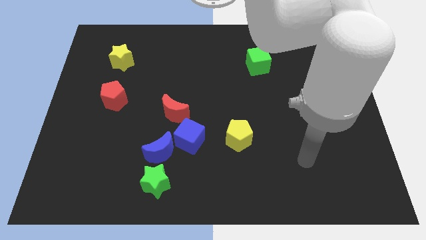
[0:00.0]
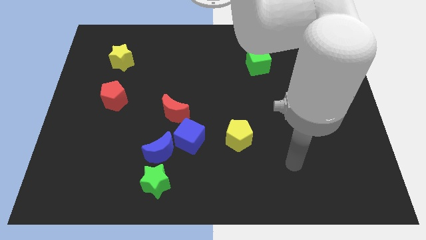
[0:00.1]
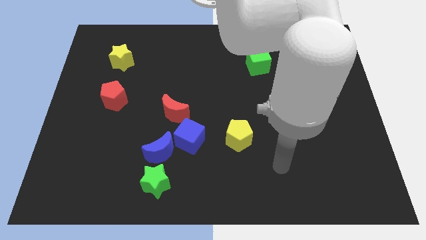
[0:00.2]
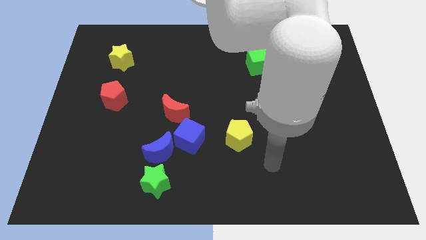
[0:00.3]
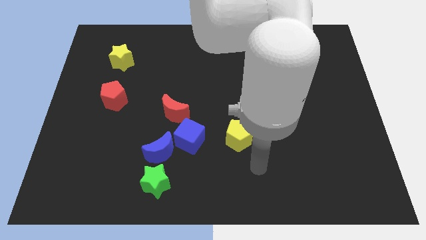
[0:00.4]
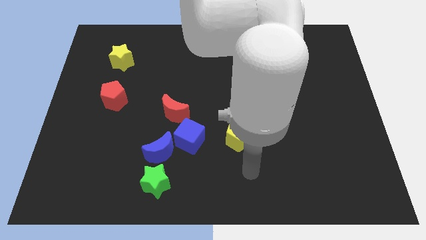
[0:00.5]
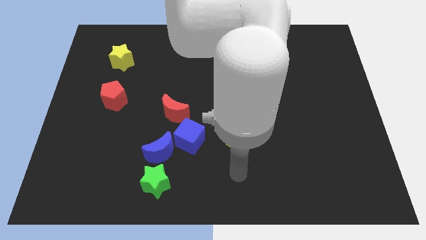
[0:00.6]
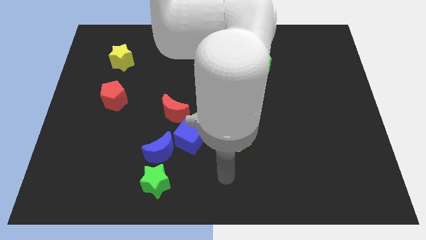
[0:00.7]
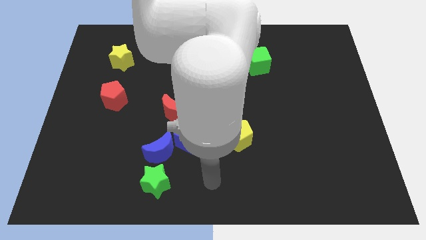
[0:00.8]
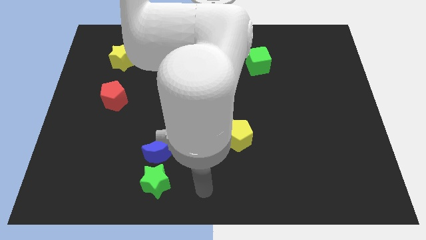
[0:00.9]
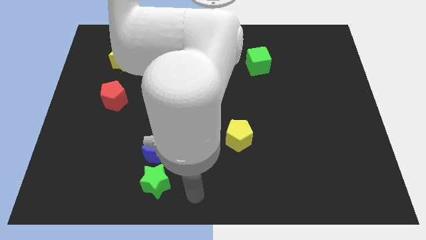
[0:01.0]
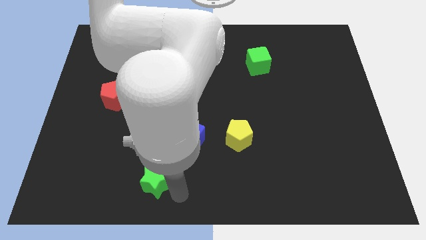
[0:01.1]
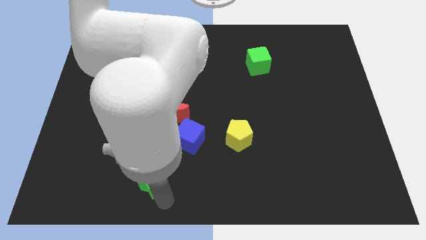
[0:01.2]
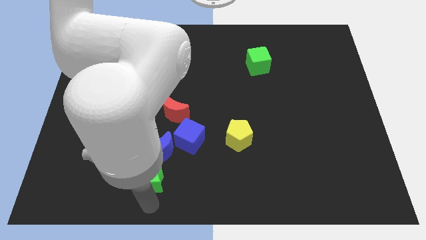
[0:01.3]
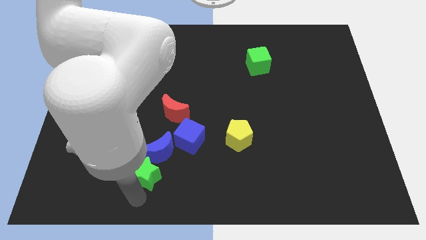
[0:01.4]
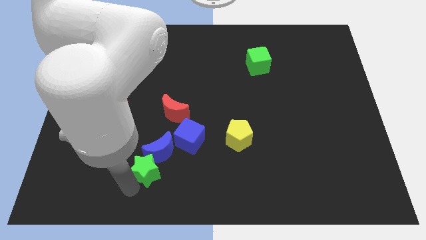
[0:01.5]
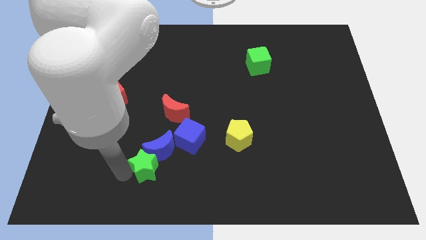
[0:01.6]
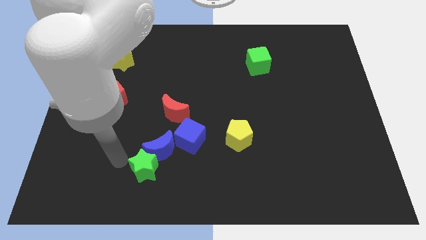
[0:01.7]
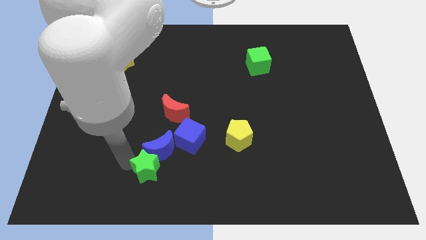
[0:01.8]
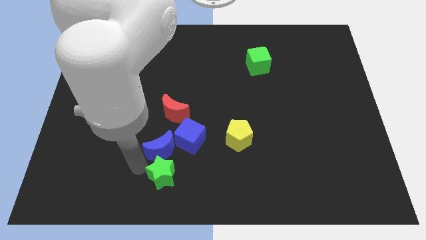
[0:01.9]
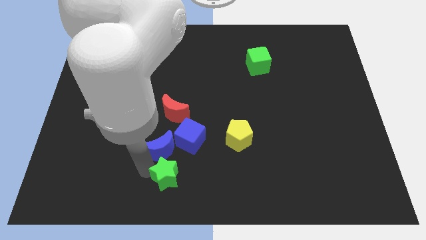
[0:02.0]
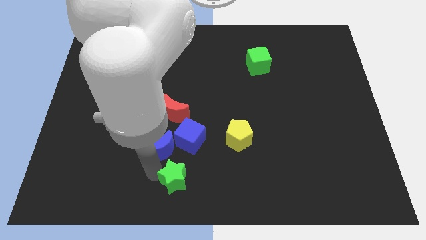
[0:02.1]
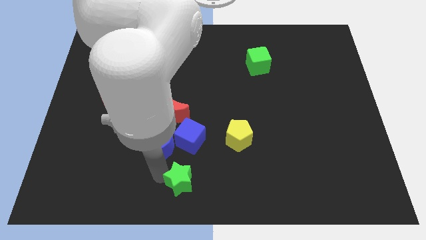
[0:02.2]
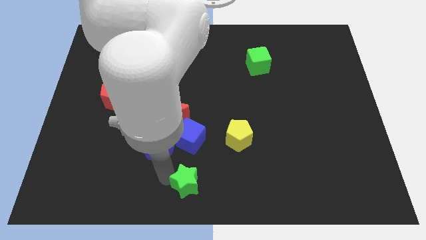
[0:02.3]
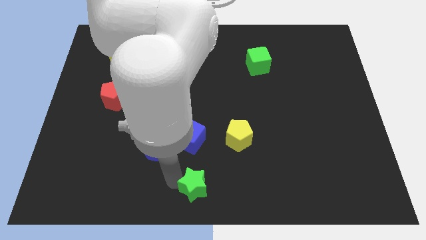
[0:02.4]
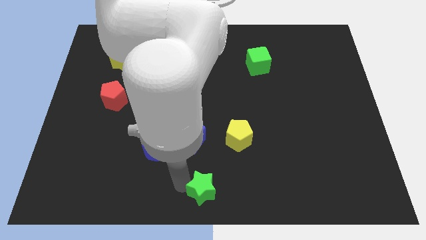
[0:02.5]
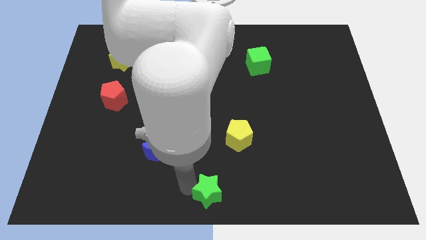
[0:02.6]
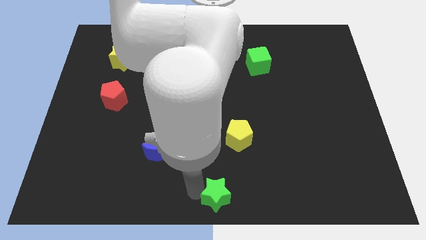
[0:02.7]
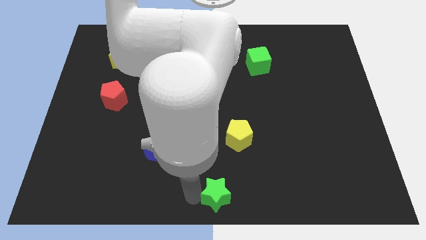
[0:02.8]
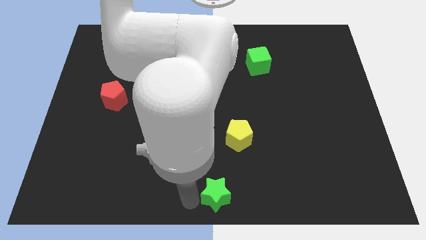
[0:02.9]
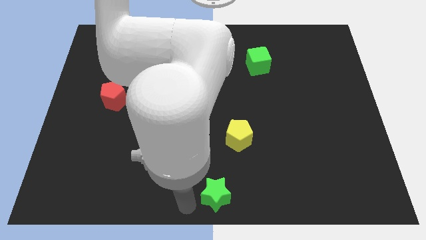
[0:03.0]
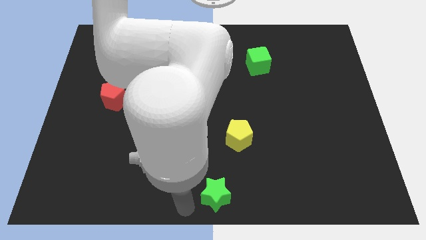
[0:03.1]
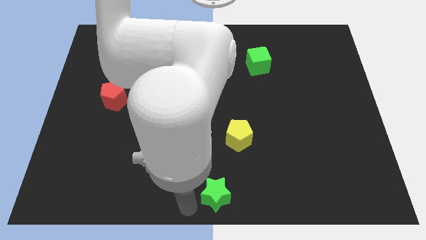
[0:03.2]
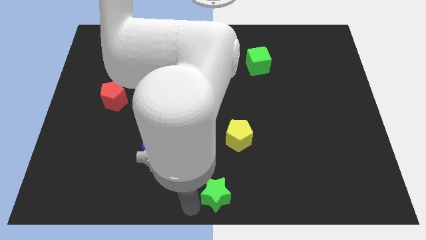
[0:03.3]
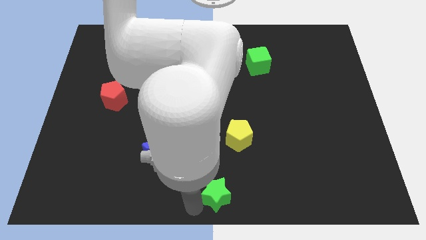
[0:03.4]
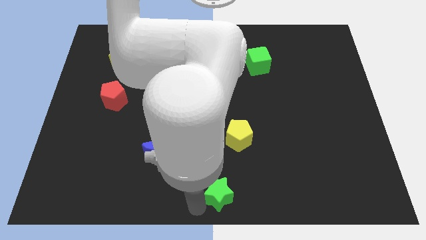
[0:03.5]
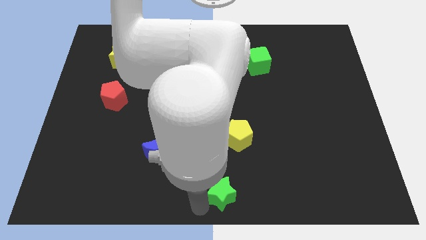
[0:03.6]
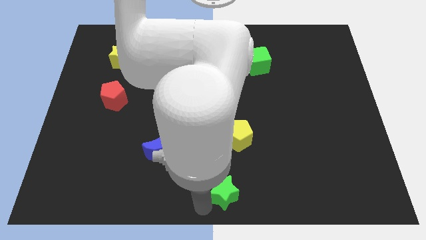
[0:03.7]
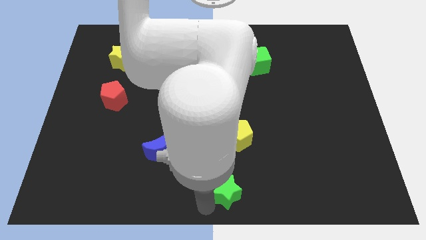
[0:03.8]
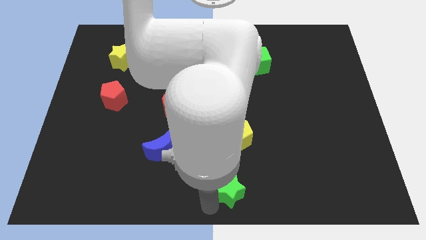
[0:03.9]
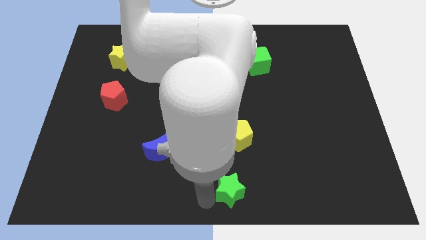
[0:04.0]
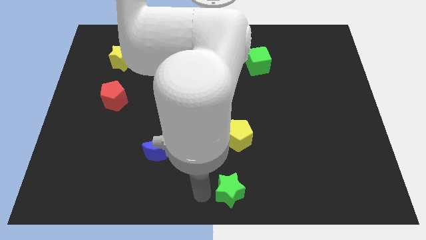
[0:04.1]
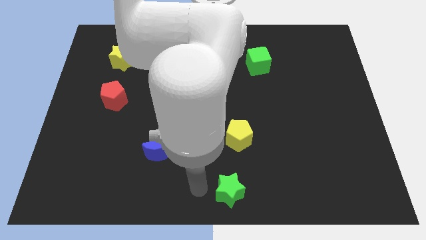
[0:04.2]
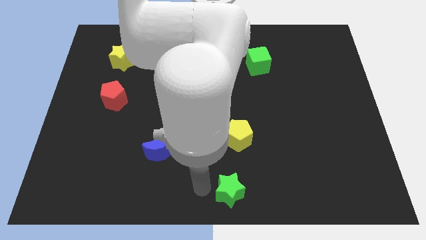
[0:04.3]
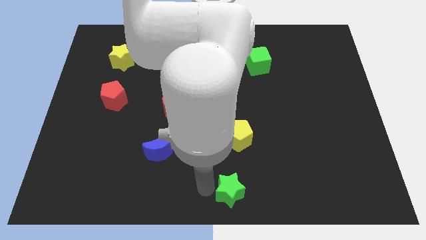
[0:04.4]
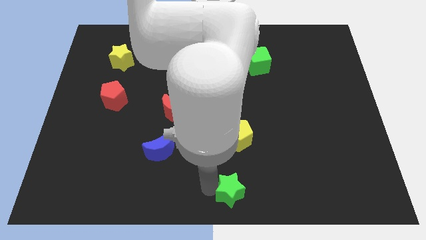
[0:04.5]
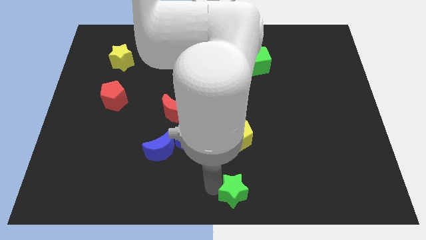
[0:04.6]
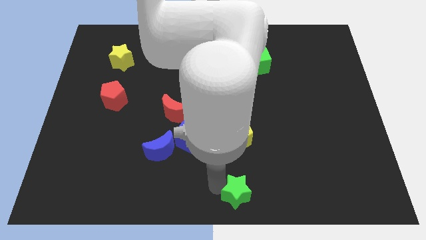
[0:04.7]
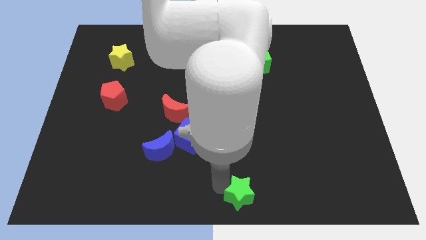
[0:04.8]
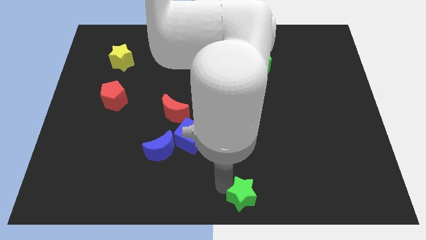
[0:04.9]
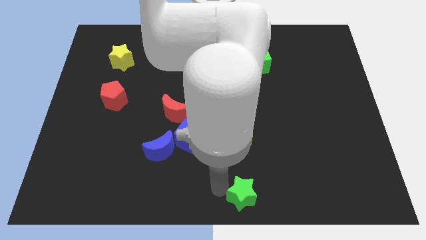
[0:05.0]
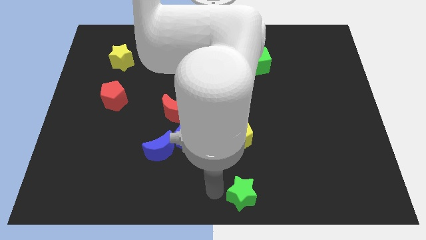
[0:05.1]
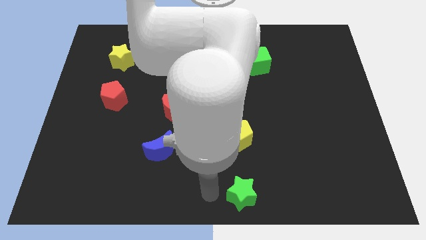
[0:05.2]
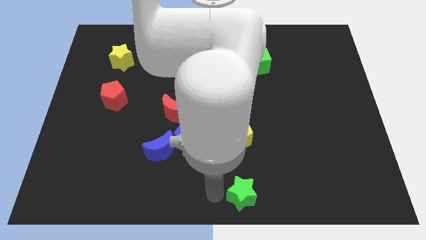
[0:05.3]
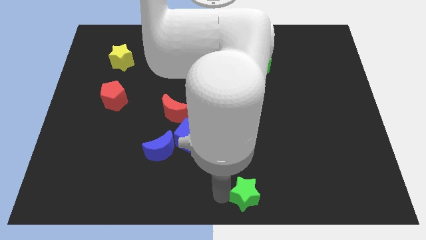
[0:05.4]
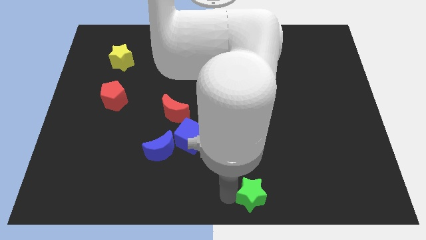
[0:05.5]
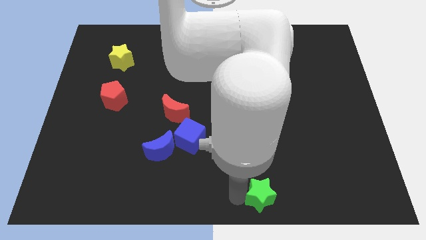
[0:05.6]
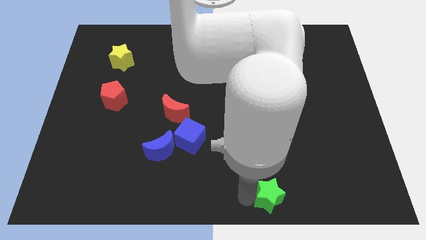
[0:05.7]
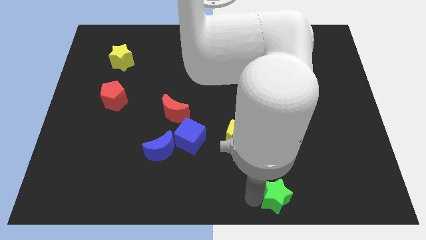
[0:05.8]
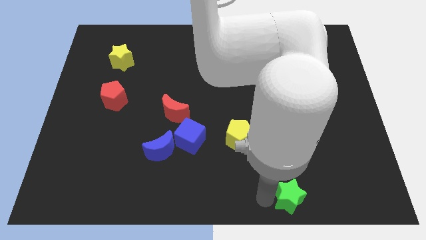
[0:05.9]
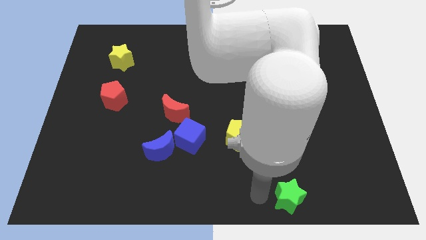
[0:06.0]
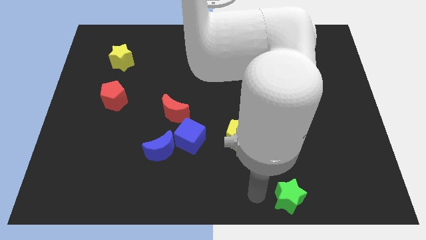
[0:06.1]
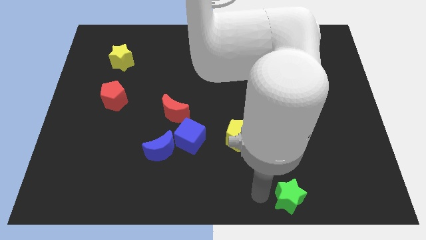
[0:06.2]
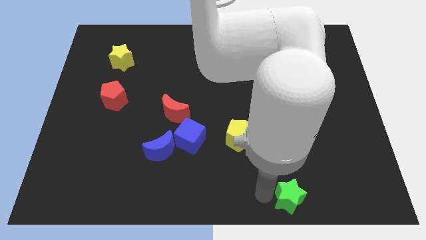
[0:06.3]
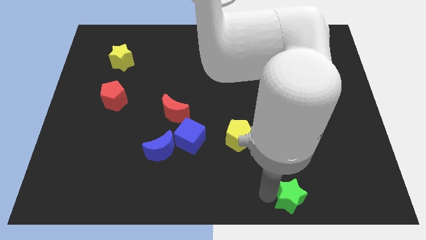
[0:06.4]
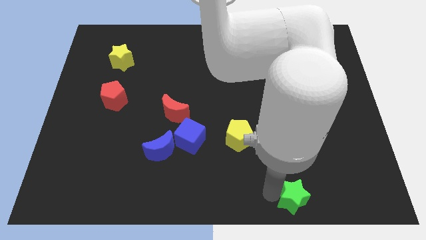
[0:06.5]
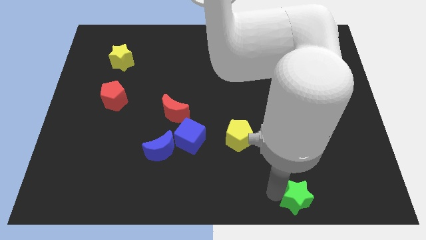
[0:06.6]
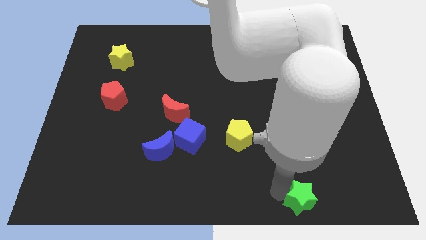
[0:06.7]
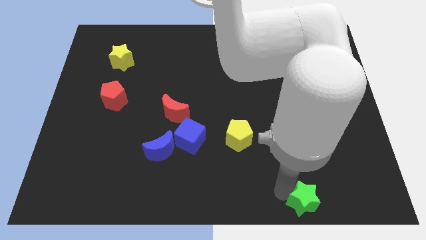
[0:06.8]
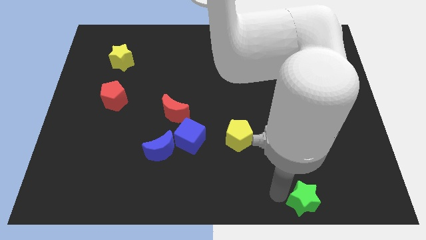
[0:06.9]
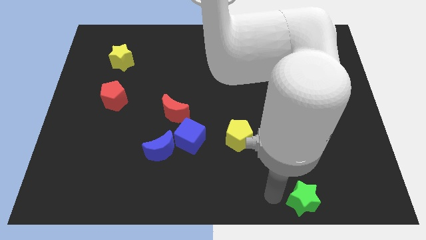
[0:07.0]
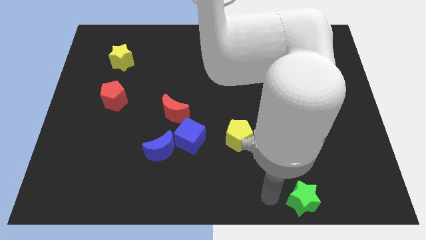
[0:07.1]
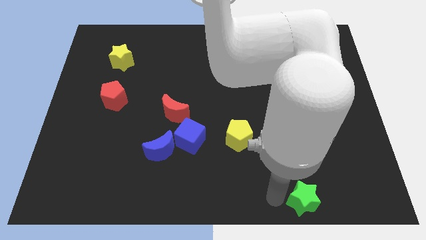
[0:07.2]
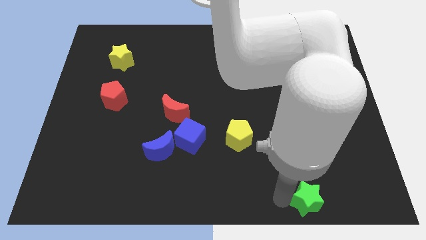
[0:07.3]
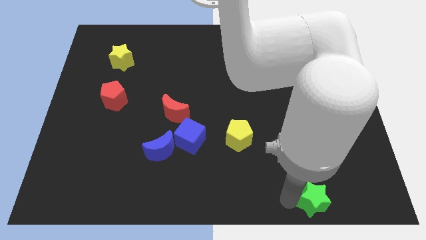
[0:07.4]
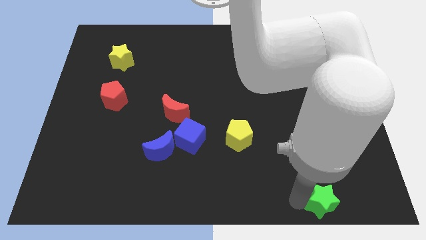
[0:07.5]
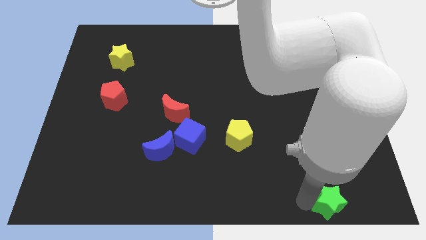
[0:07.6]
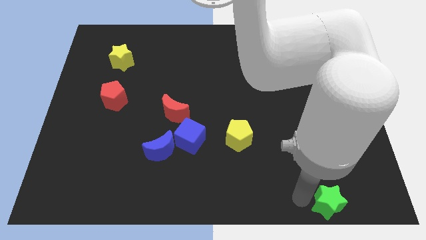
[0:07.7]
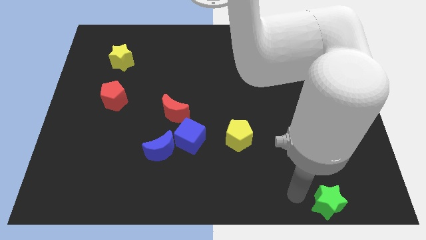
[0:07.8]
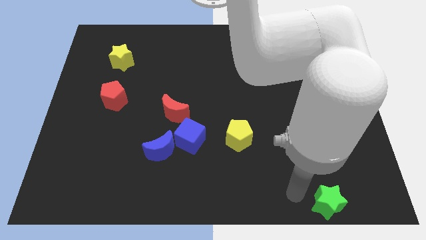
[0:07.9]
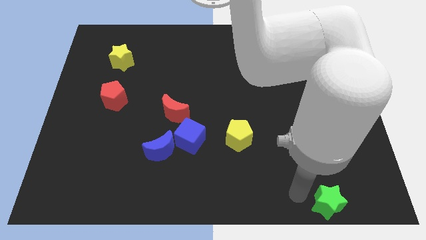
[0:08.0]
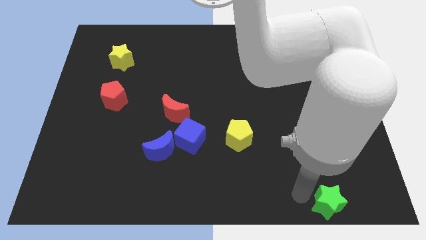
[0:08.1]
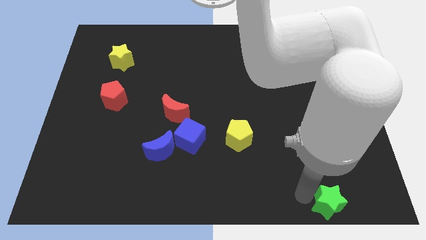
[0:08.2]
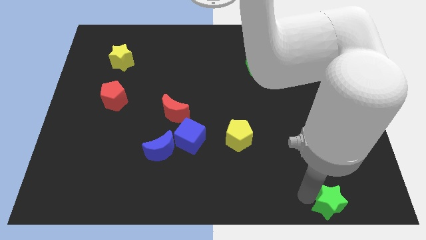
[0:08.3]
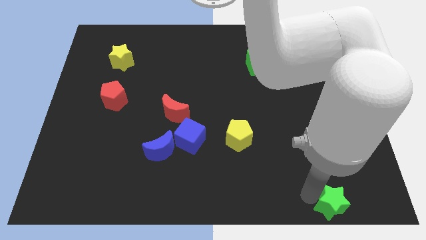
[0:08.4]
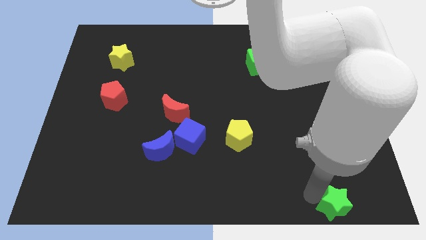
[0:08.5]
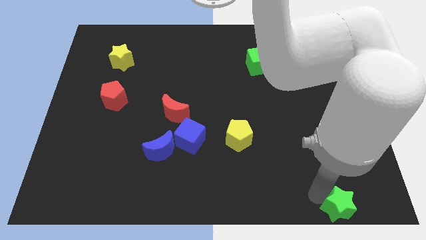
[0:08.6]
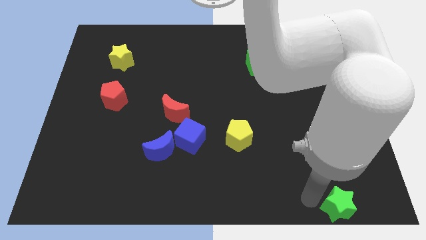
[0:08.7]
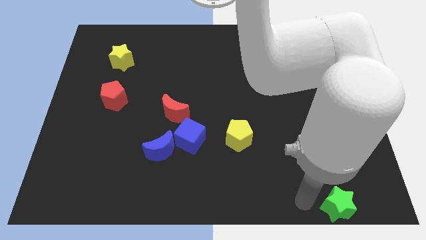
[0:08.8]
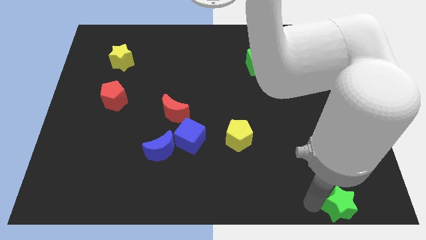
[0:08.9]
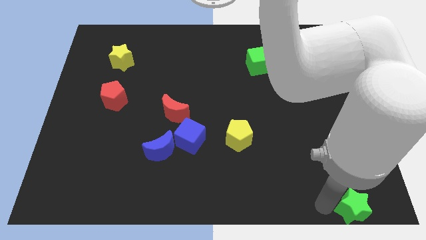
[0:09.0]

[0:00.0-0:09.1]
slide the green star to the bottom right
